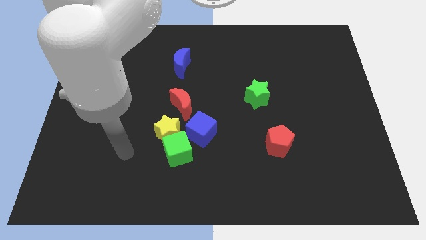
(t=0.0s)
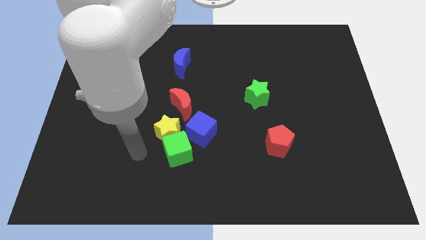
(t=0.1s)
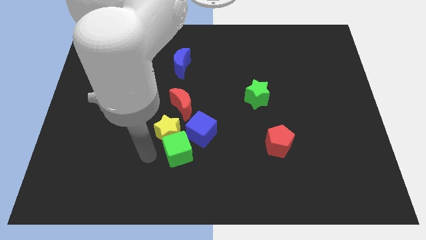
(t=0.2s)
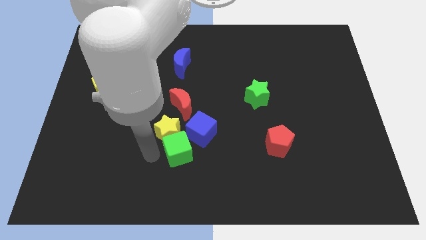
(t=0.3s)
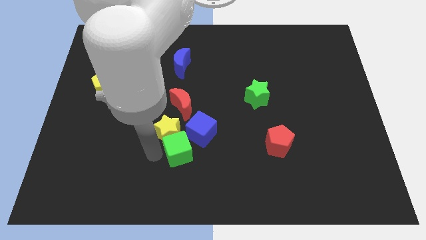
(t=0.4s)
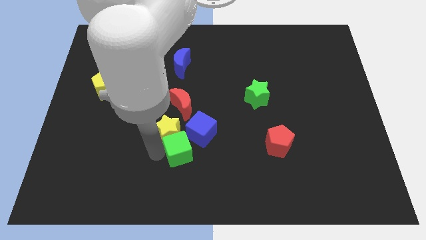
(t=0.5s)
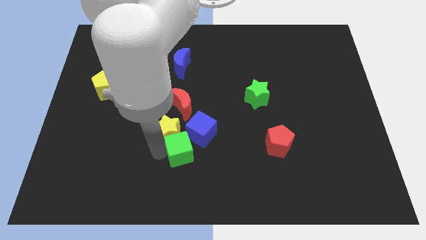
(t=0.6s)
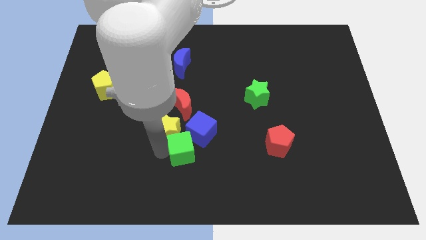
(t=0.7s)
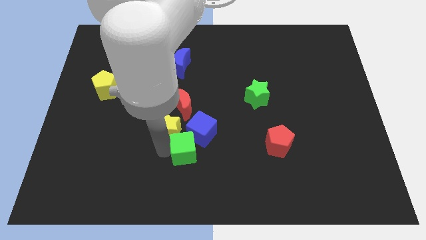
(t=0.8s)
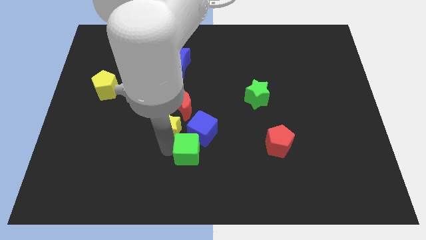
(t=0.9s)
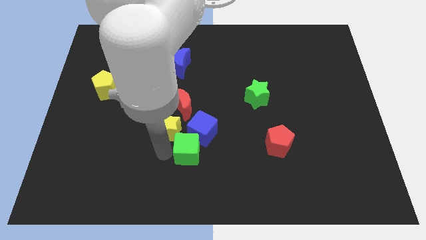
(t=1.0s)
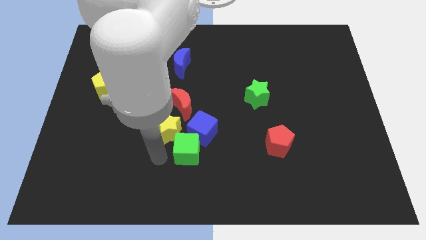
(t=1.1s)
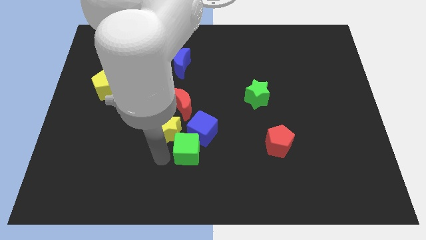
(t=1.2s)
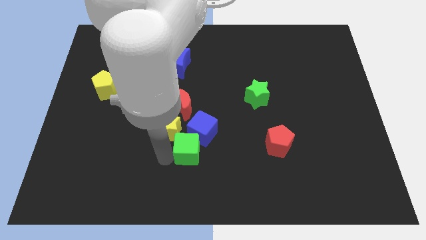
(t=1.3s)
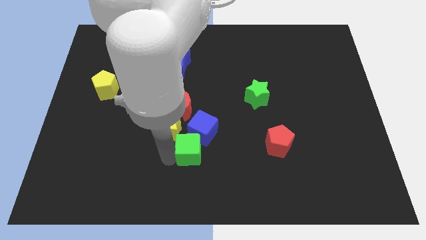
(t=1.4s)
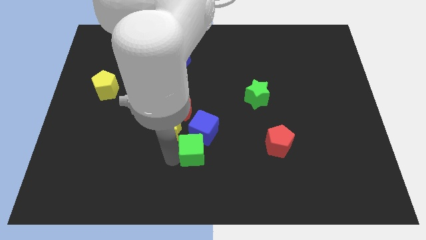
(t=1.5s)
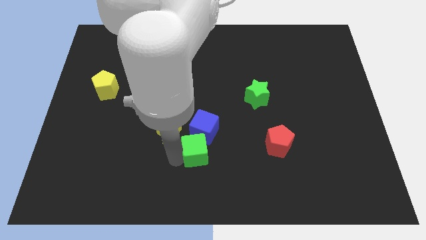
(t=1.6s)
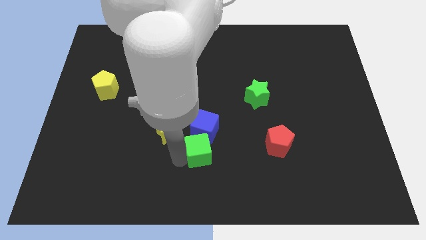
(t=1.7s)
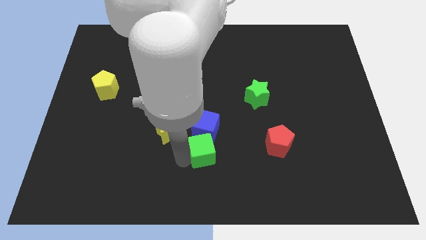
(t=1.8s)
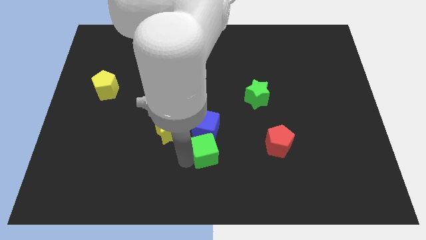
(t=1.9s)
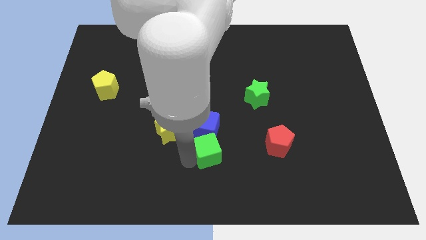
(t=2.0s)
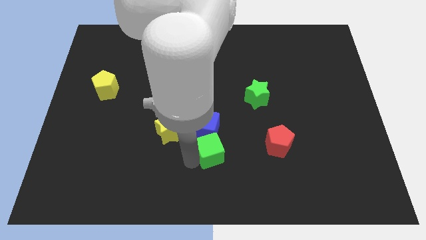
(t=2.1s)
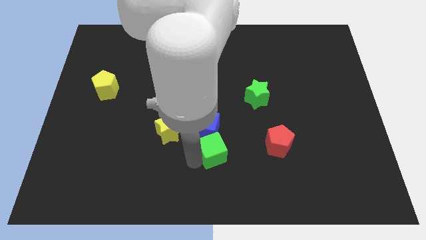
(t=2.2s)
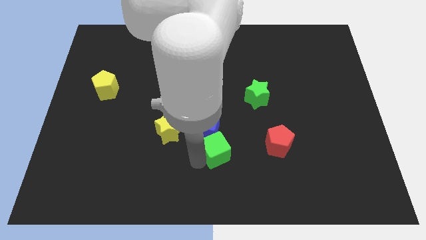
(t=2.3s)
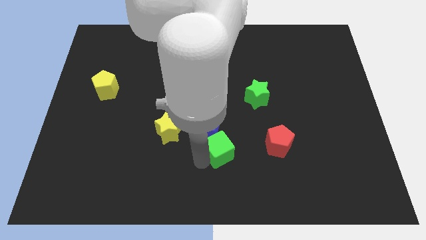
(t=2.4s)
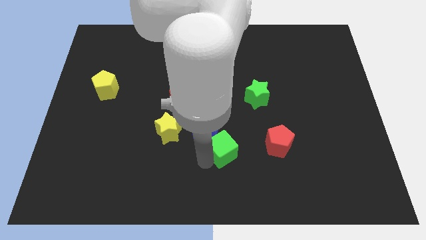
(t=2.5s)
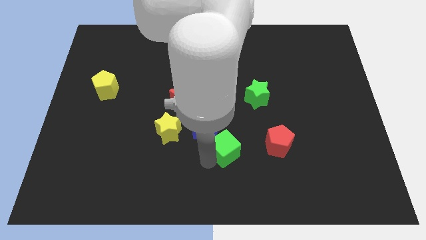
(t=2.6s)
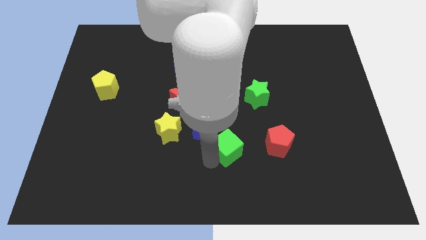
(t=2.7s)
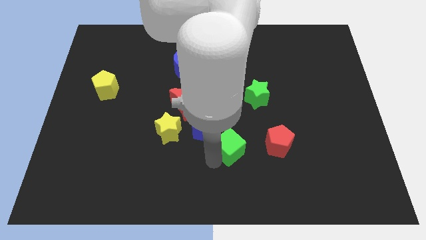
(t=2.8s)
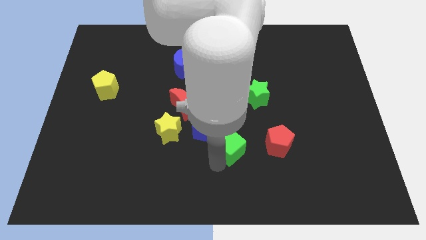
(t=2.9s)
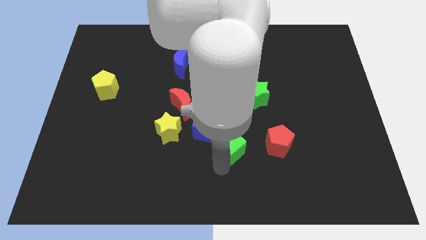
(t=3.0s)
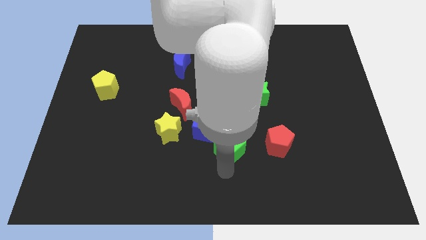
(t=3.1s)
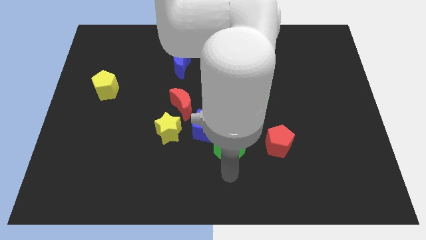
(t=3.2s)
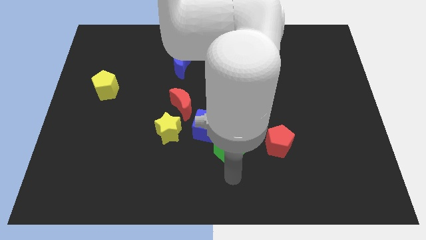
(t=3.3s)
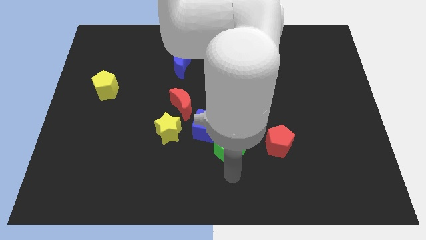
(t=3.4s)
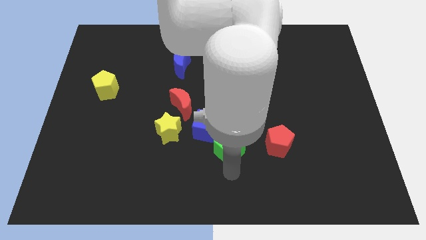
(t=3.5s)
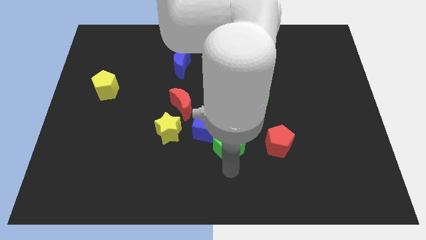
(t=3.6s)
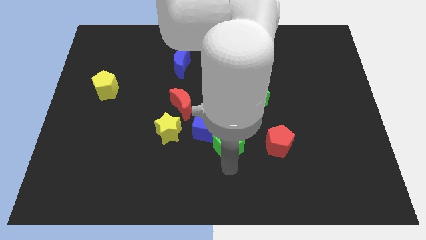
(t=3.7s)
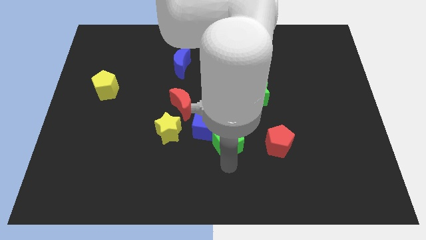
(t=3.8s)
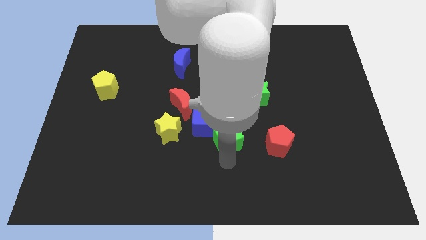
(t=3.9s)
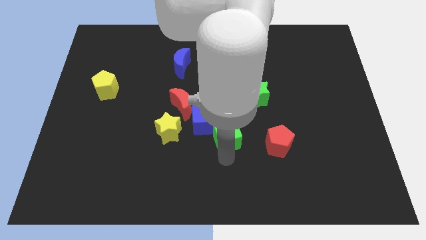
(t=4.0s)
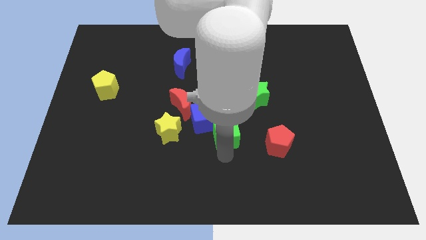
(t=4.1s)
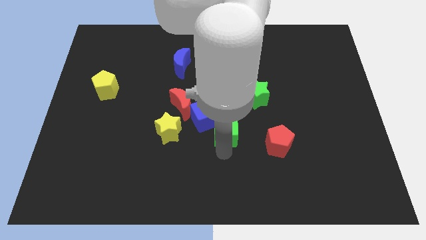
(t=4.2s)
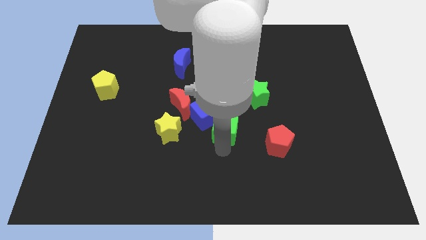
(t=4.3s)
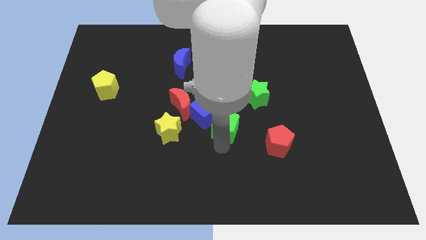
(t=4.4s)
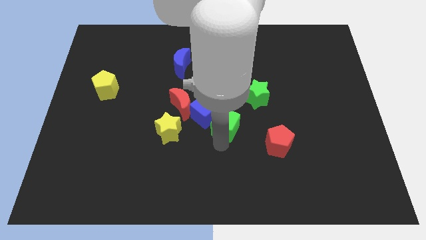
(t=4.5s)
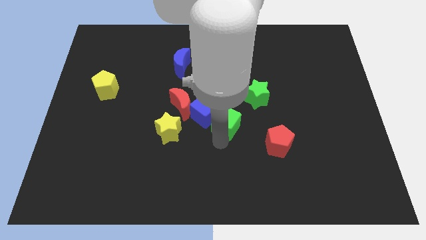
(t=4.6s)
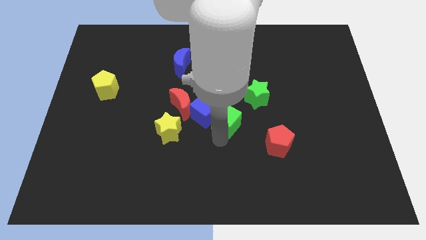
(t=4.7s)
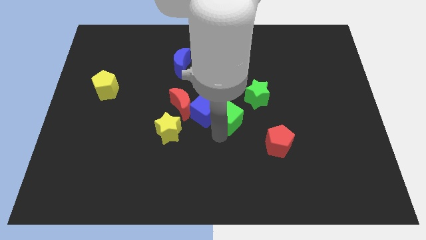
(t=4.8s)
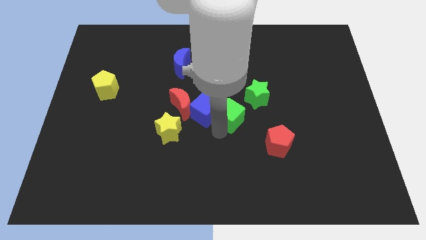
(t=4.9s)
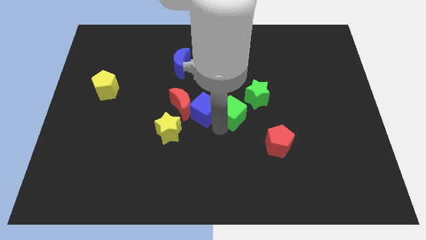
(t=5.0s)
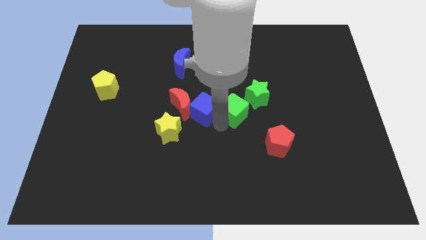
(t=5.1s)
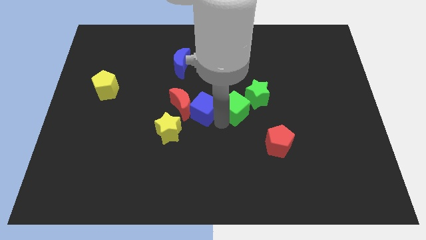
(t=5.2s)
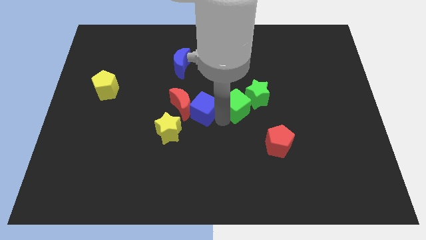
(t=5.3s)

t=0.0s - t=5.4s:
push the green cube towards the green star

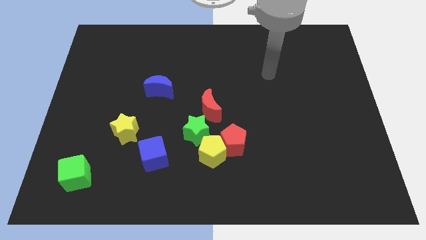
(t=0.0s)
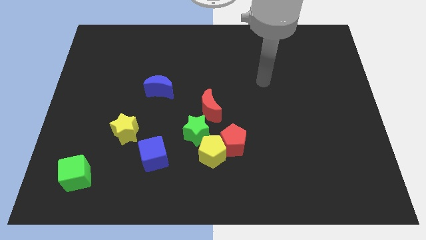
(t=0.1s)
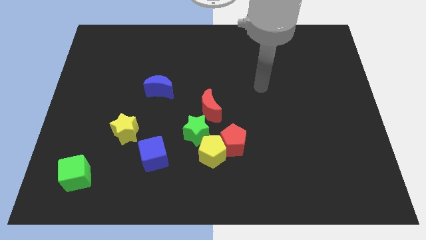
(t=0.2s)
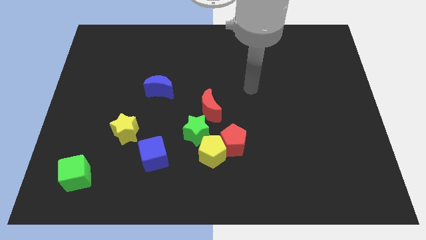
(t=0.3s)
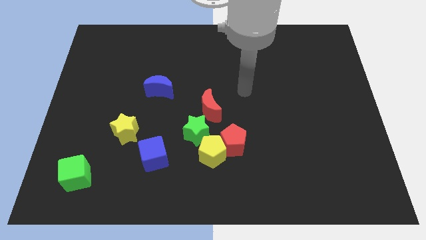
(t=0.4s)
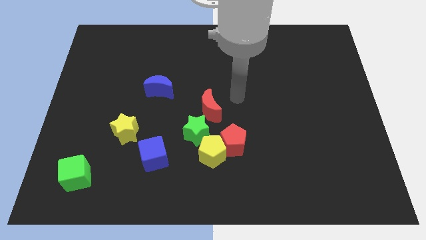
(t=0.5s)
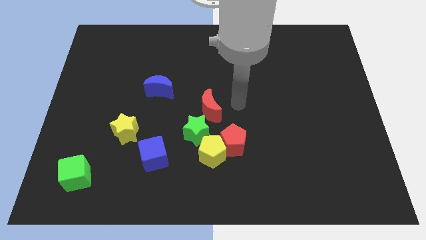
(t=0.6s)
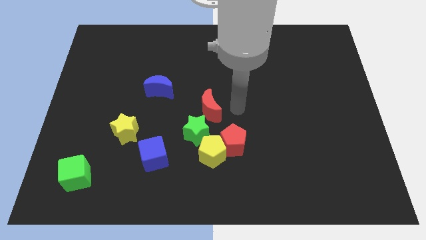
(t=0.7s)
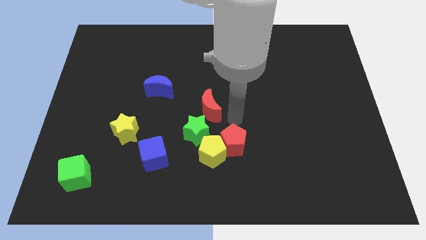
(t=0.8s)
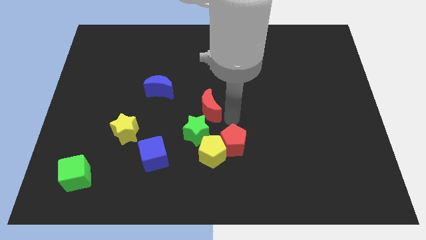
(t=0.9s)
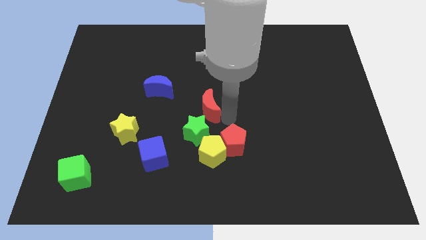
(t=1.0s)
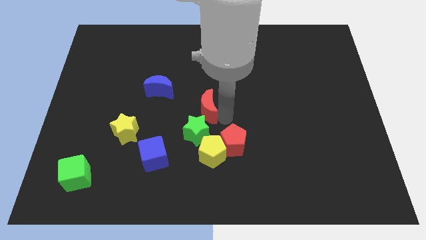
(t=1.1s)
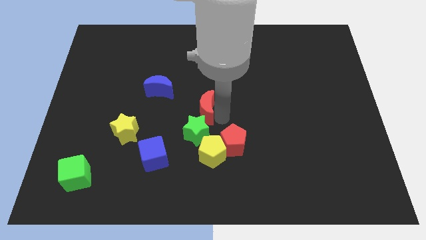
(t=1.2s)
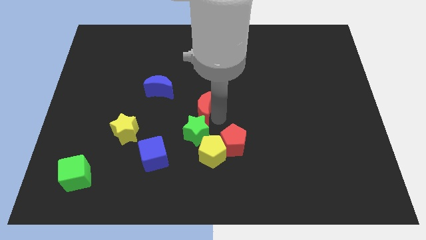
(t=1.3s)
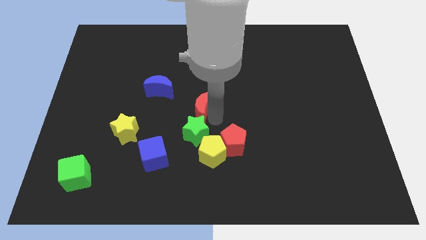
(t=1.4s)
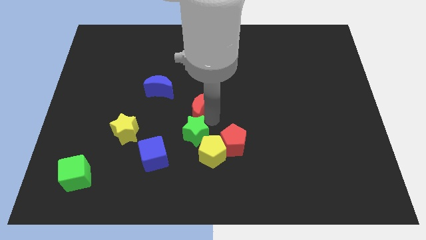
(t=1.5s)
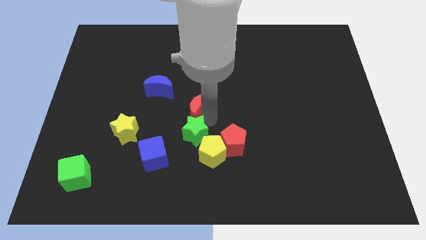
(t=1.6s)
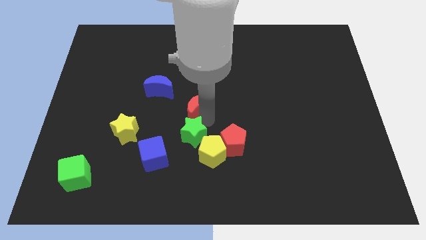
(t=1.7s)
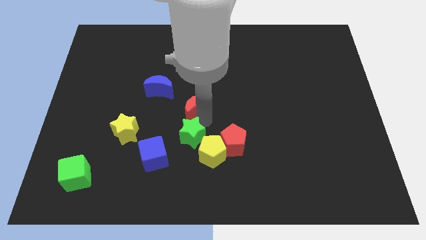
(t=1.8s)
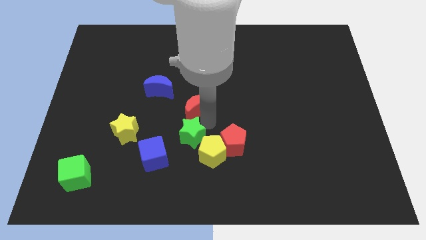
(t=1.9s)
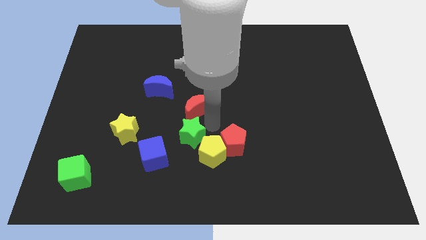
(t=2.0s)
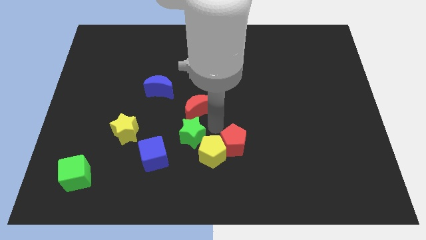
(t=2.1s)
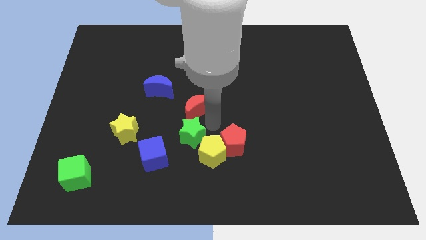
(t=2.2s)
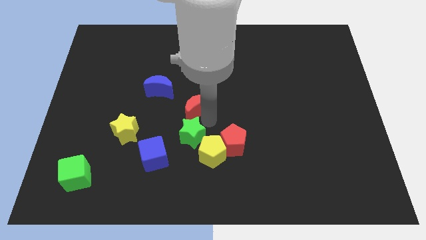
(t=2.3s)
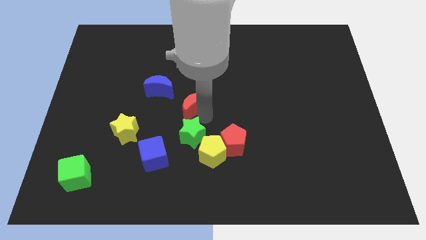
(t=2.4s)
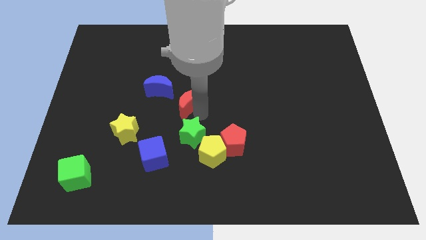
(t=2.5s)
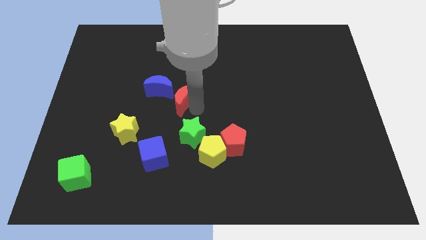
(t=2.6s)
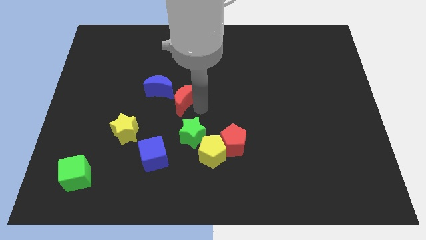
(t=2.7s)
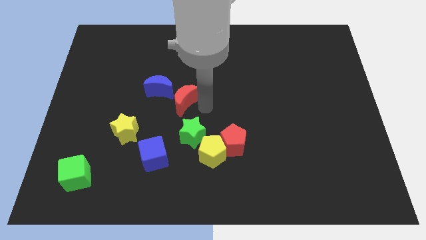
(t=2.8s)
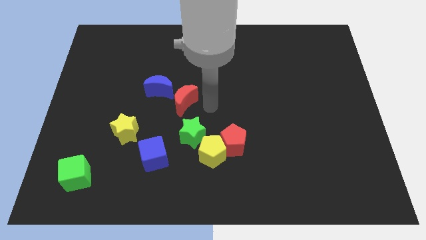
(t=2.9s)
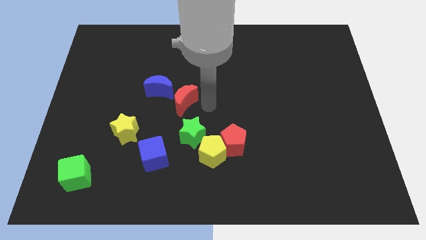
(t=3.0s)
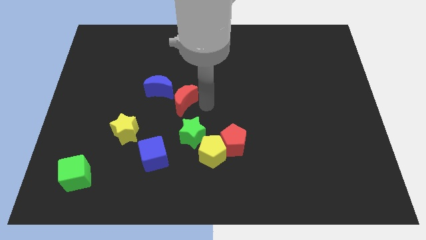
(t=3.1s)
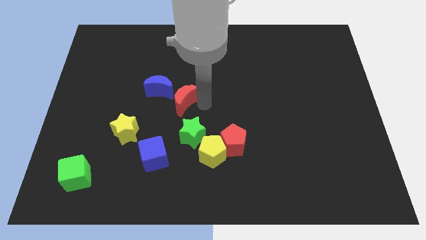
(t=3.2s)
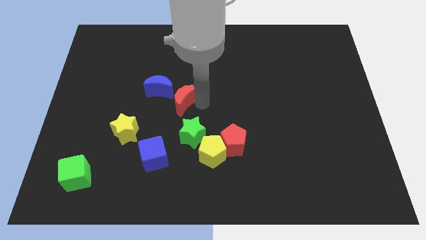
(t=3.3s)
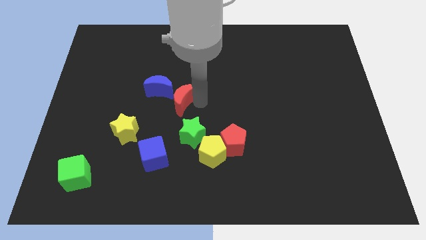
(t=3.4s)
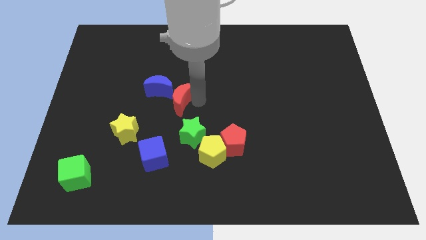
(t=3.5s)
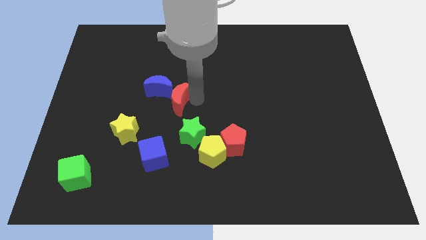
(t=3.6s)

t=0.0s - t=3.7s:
move the red moon close to the blue moon
